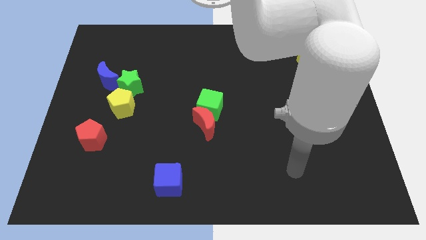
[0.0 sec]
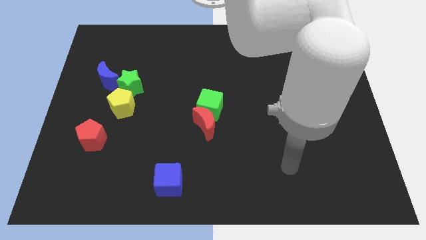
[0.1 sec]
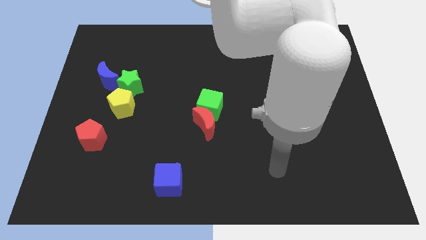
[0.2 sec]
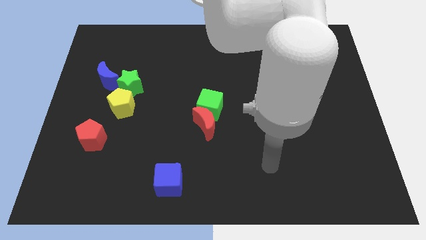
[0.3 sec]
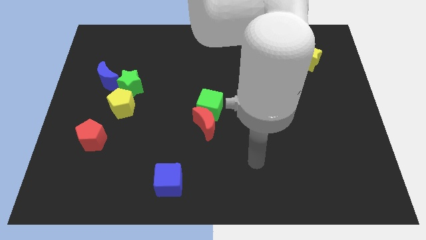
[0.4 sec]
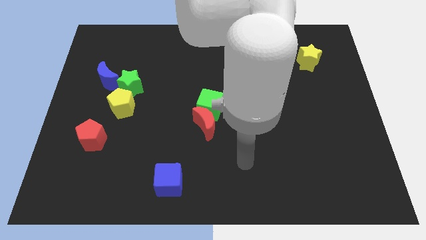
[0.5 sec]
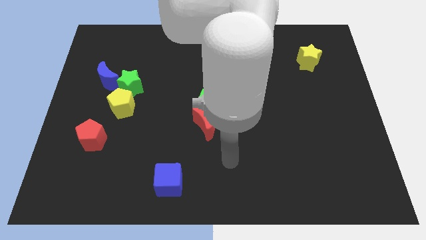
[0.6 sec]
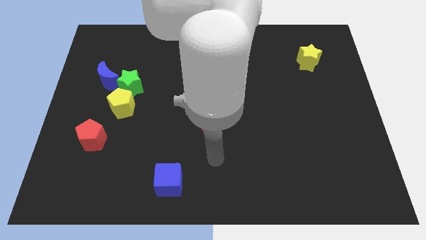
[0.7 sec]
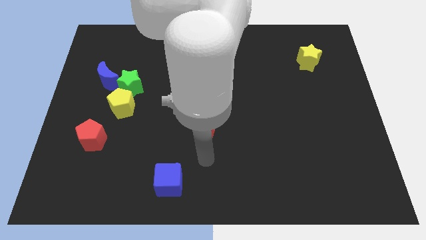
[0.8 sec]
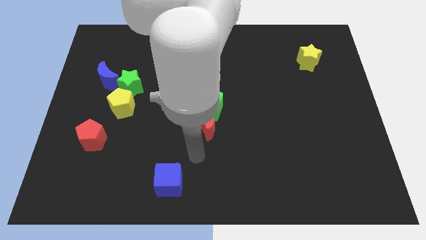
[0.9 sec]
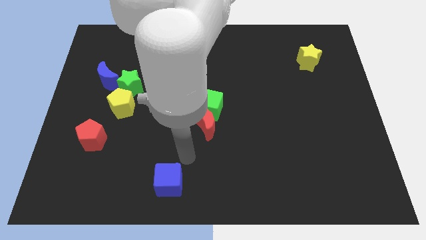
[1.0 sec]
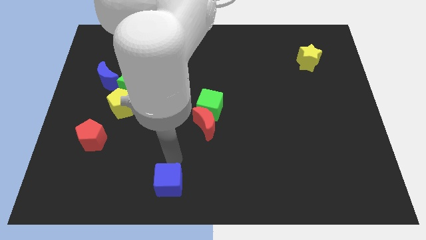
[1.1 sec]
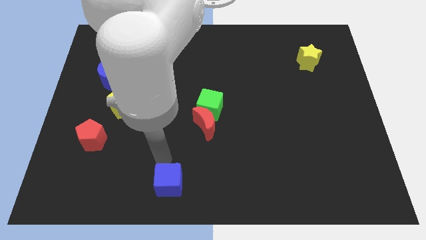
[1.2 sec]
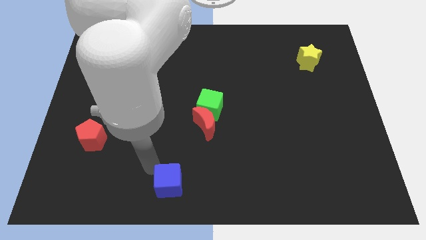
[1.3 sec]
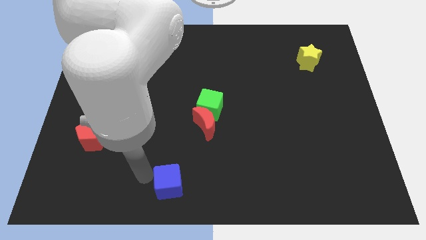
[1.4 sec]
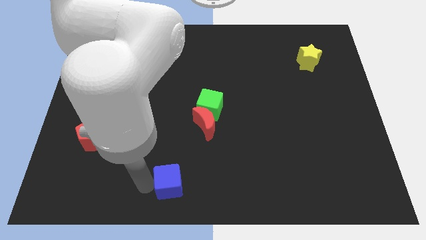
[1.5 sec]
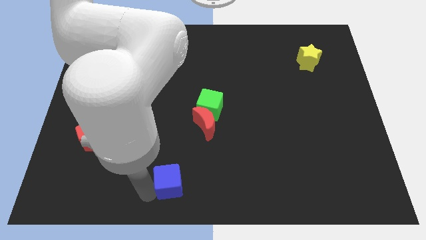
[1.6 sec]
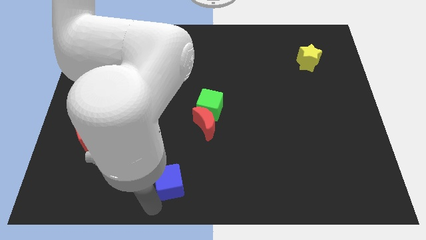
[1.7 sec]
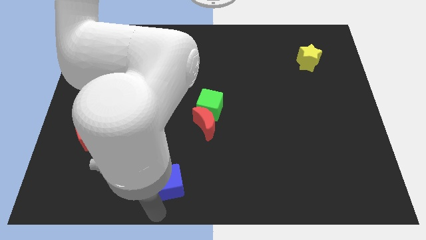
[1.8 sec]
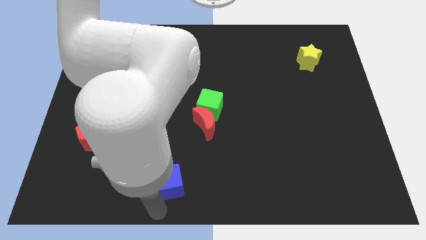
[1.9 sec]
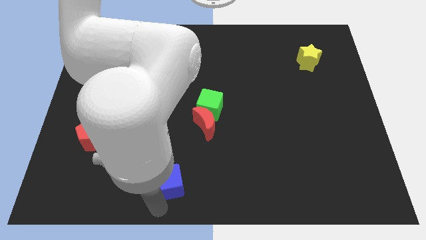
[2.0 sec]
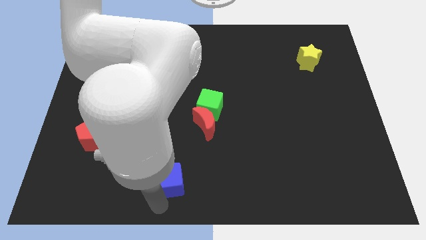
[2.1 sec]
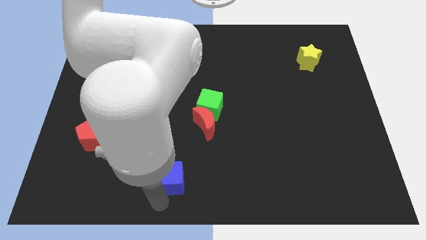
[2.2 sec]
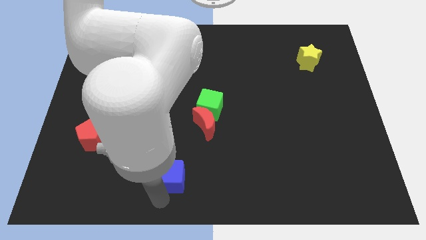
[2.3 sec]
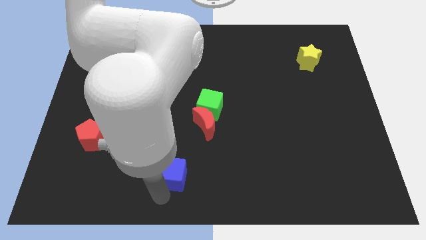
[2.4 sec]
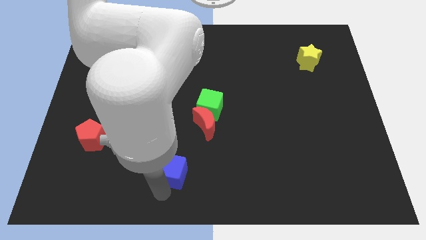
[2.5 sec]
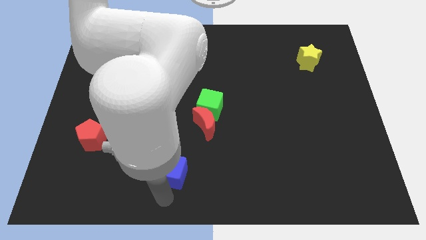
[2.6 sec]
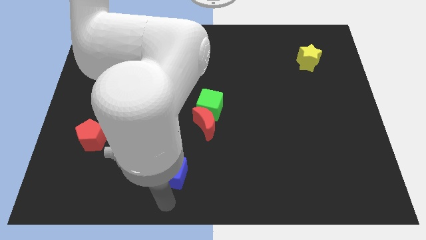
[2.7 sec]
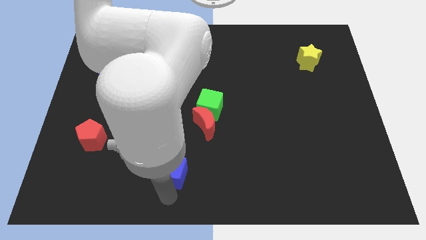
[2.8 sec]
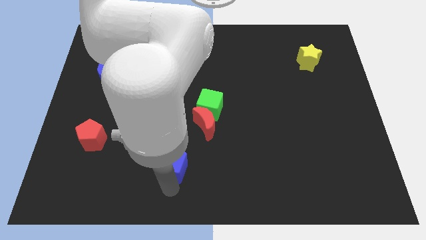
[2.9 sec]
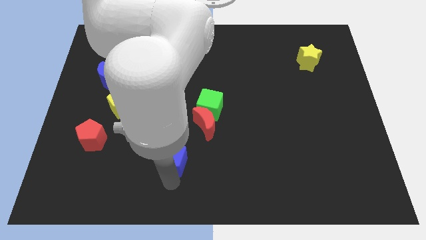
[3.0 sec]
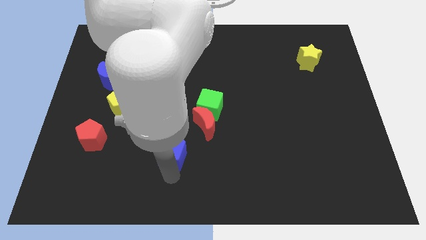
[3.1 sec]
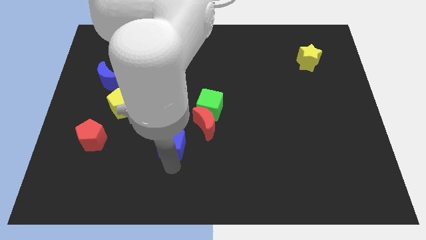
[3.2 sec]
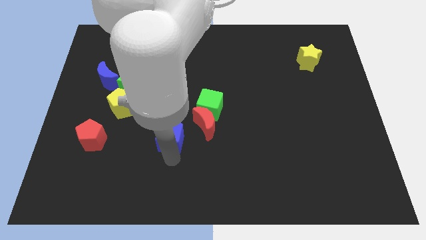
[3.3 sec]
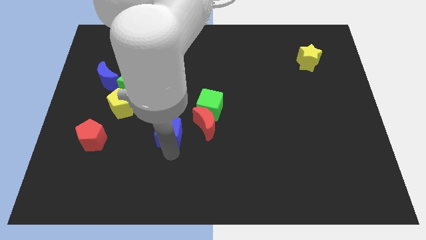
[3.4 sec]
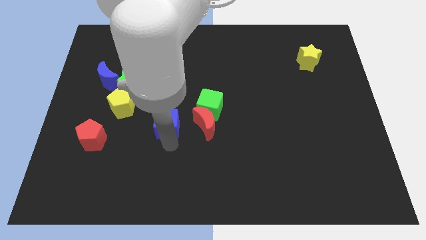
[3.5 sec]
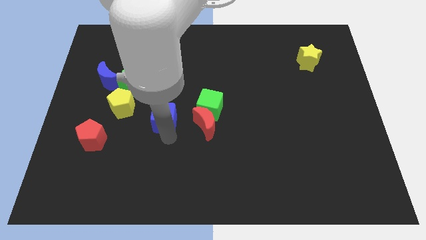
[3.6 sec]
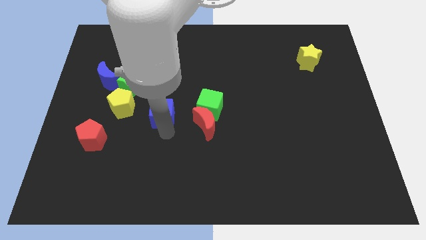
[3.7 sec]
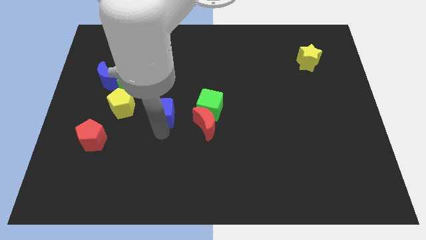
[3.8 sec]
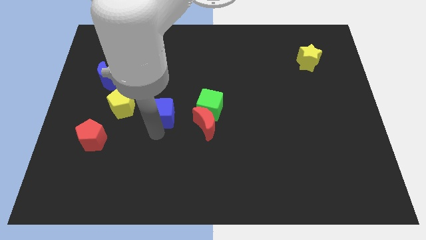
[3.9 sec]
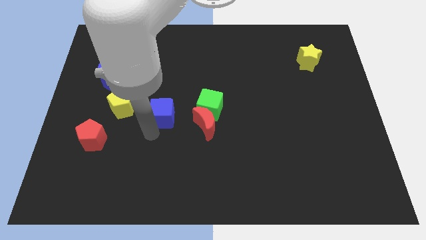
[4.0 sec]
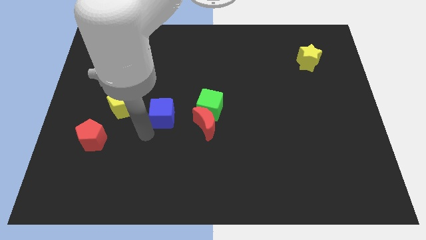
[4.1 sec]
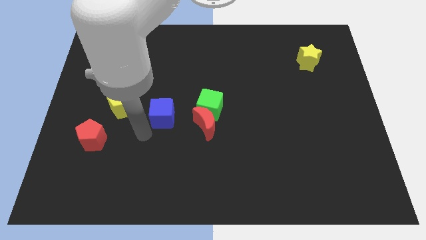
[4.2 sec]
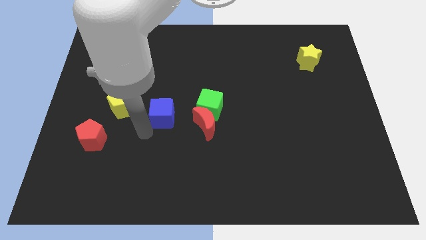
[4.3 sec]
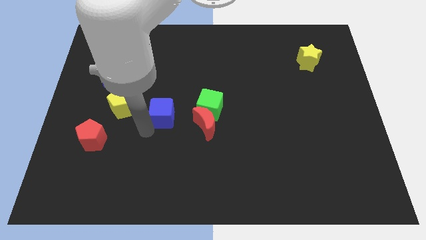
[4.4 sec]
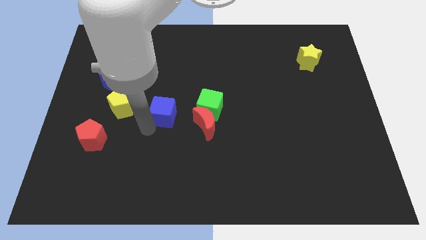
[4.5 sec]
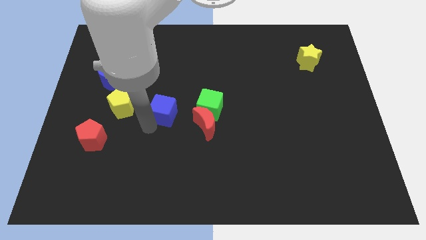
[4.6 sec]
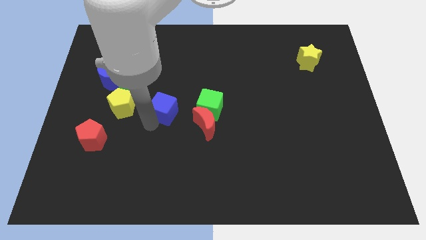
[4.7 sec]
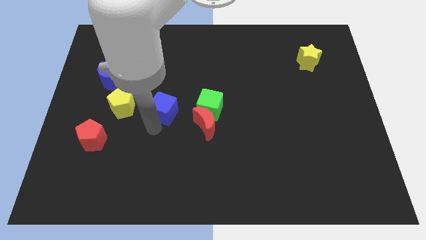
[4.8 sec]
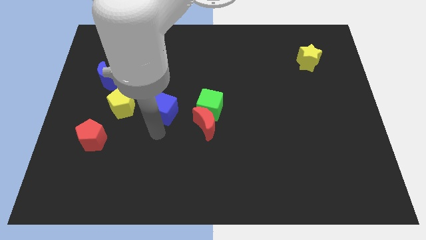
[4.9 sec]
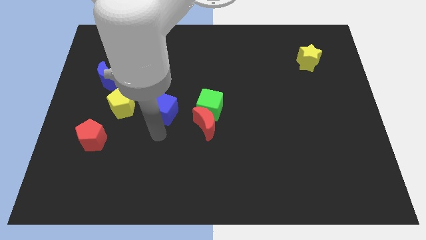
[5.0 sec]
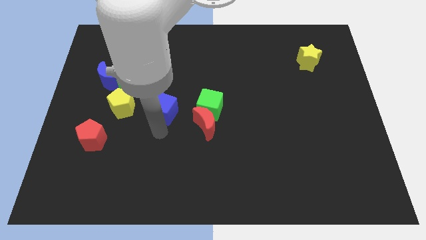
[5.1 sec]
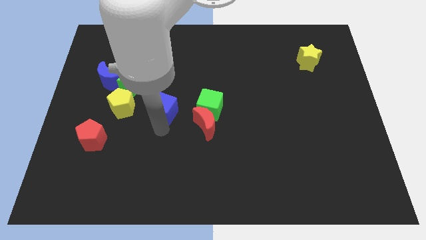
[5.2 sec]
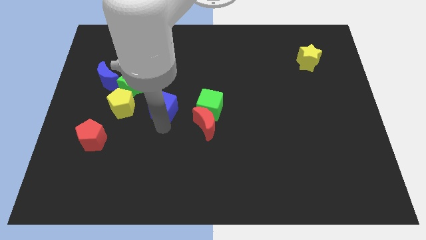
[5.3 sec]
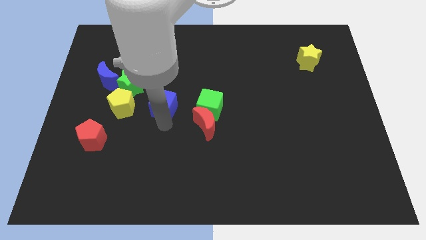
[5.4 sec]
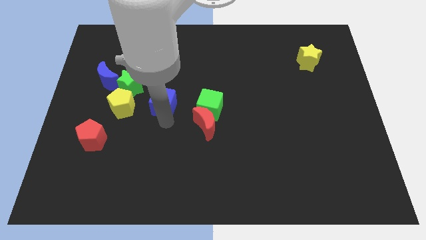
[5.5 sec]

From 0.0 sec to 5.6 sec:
move the blue cube upwards

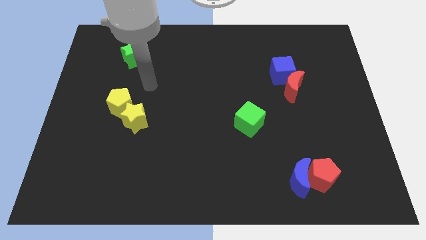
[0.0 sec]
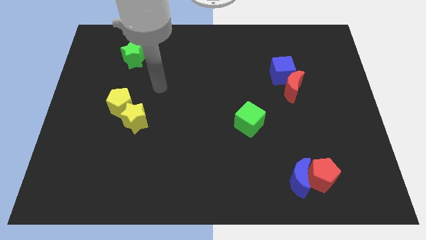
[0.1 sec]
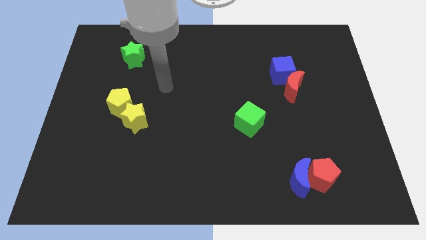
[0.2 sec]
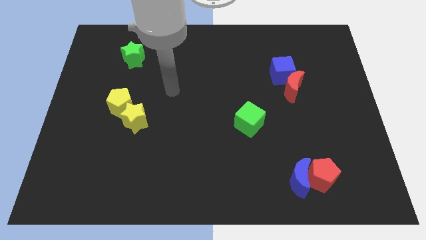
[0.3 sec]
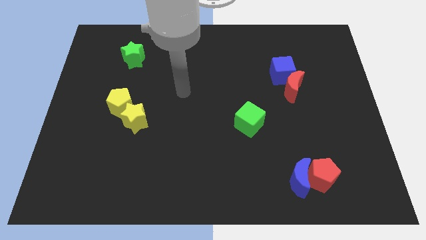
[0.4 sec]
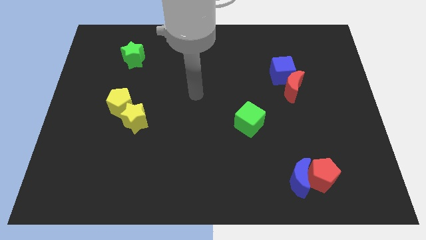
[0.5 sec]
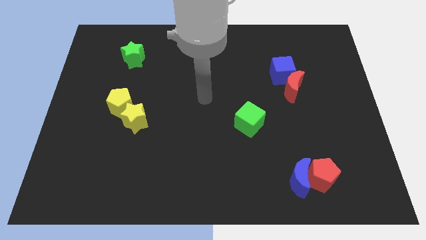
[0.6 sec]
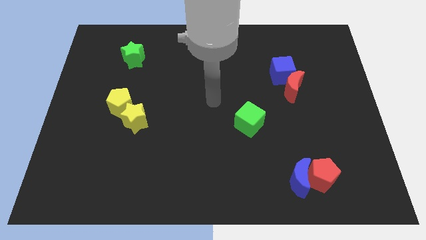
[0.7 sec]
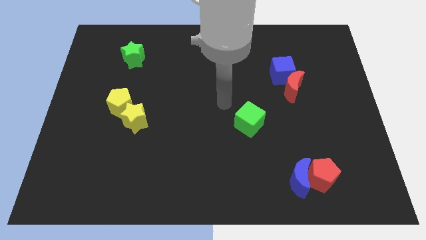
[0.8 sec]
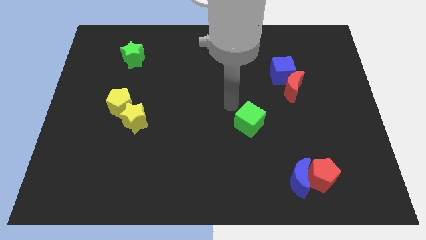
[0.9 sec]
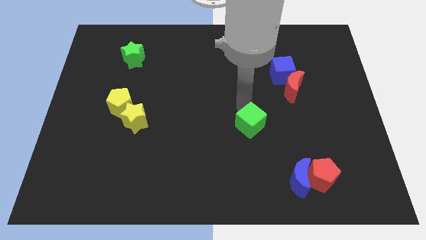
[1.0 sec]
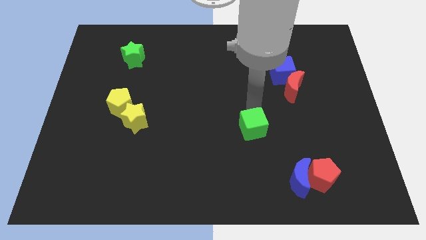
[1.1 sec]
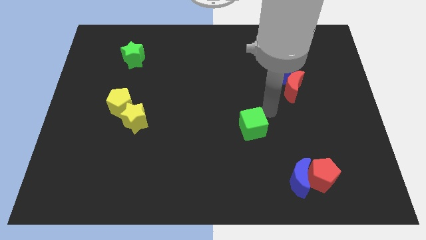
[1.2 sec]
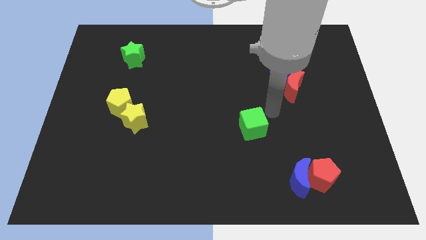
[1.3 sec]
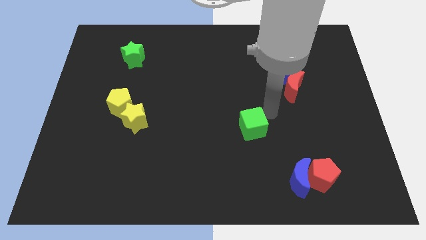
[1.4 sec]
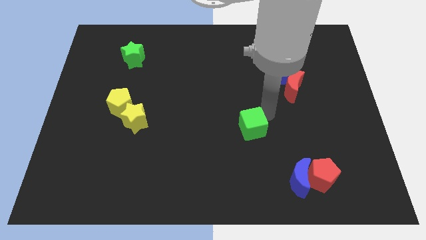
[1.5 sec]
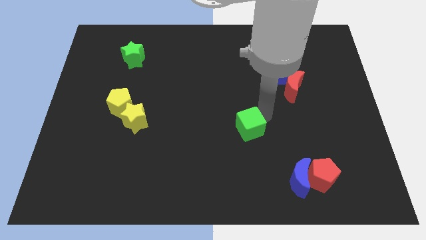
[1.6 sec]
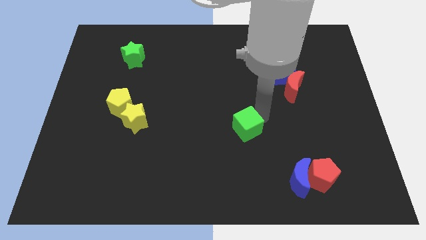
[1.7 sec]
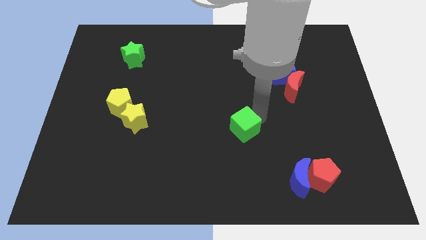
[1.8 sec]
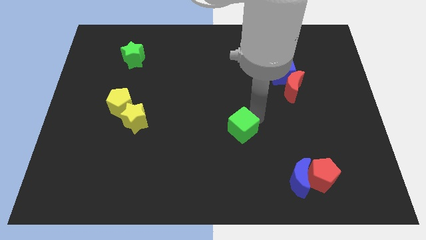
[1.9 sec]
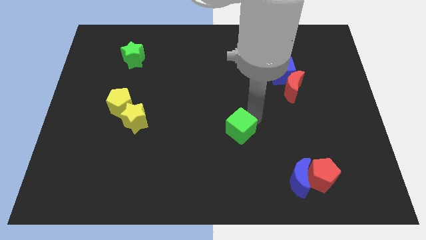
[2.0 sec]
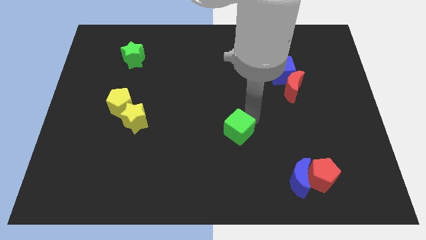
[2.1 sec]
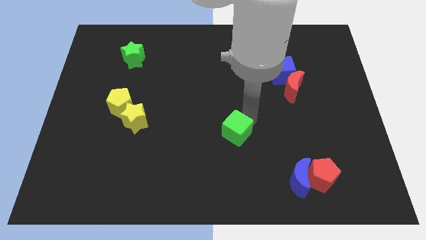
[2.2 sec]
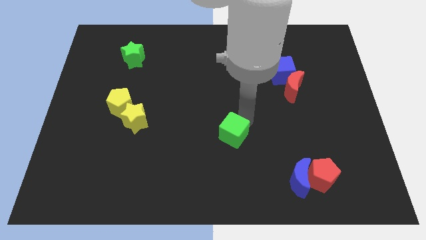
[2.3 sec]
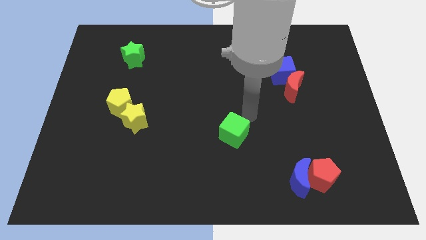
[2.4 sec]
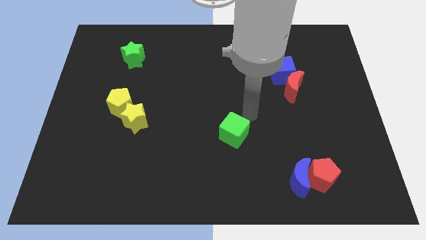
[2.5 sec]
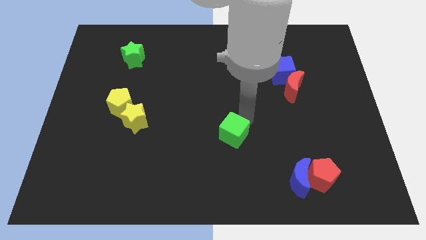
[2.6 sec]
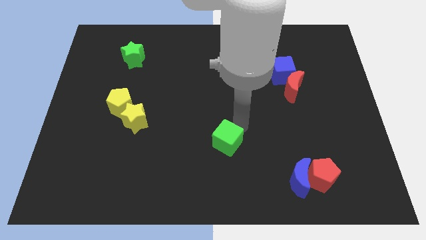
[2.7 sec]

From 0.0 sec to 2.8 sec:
move the green cube downwards and then to the left slightly
